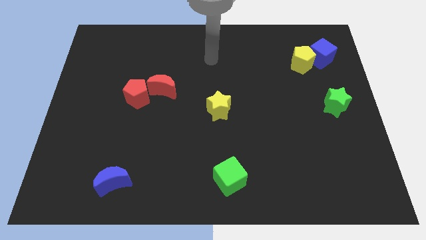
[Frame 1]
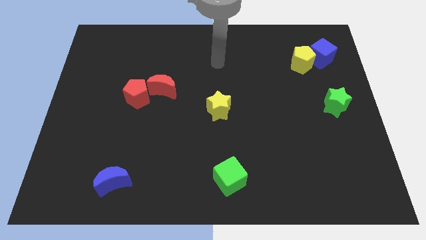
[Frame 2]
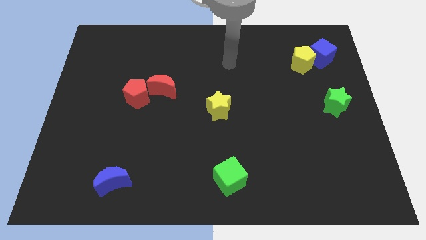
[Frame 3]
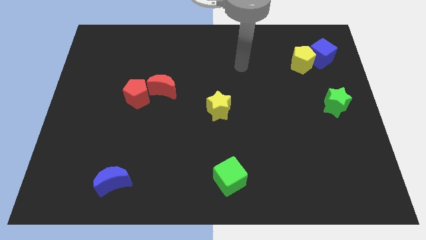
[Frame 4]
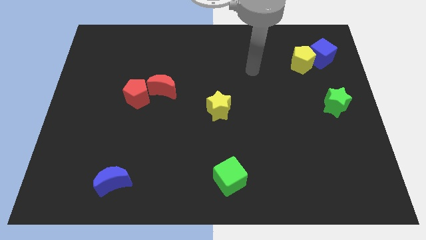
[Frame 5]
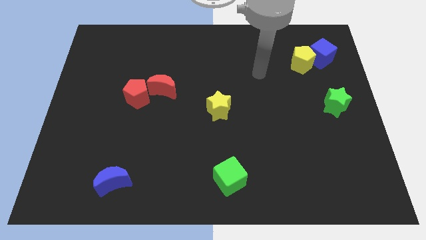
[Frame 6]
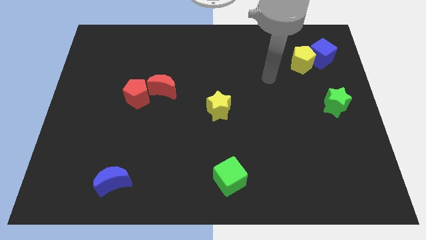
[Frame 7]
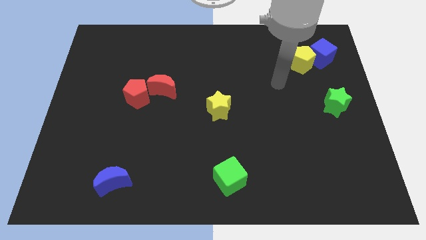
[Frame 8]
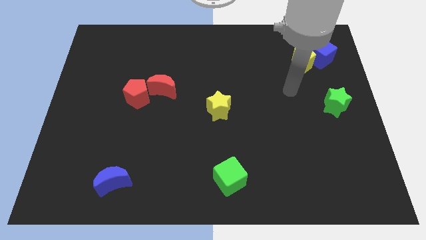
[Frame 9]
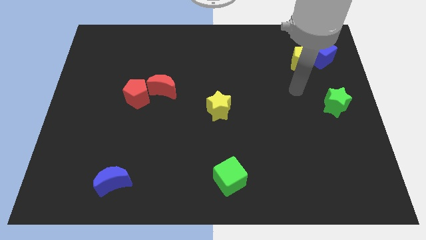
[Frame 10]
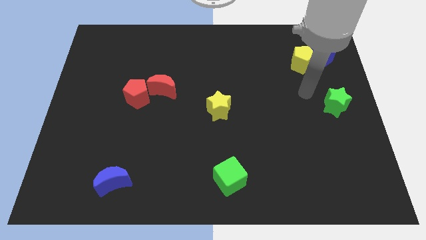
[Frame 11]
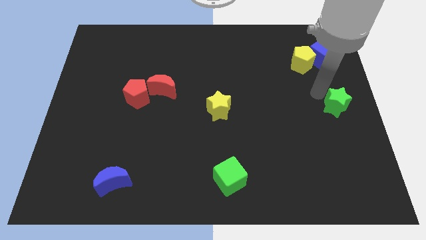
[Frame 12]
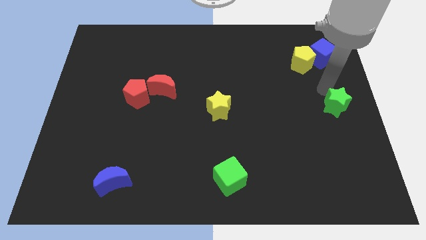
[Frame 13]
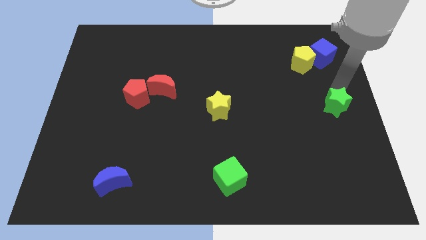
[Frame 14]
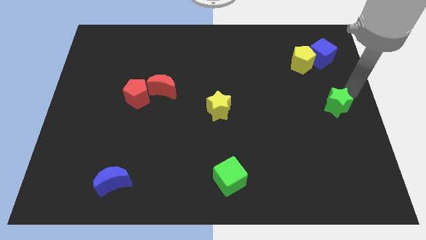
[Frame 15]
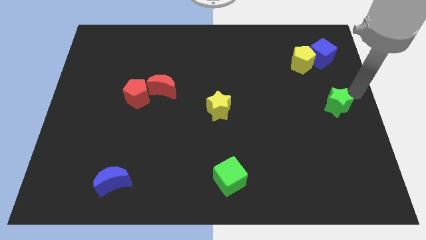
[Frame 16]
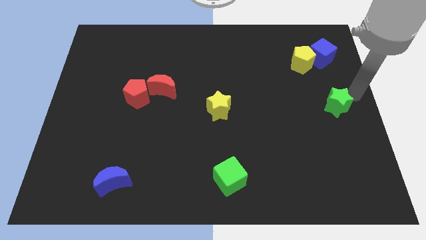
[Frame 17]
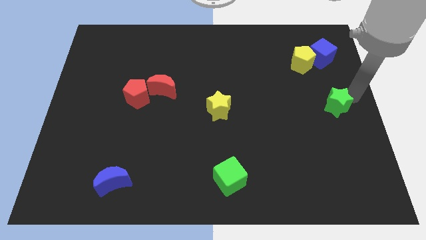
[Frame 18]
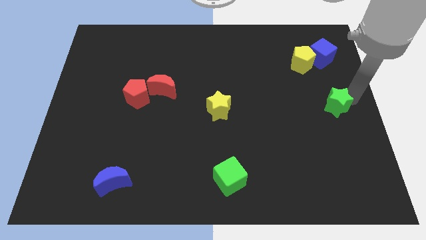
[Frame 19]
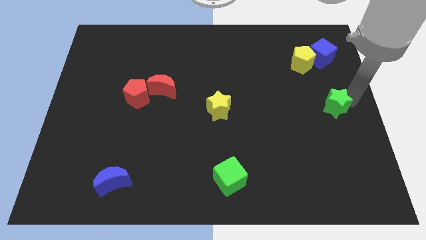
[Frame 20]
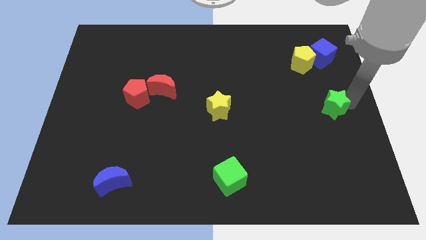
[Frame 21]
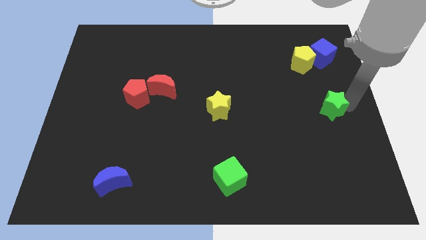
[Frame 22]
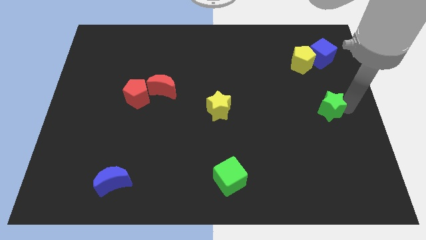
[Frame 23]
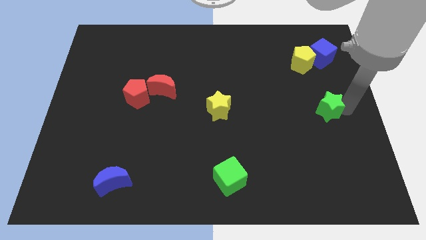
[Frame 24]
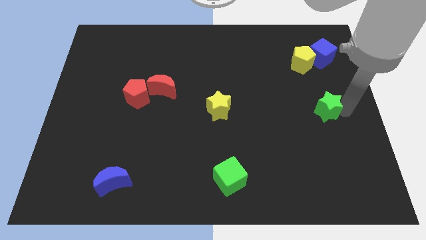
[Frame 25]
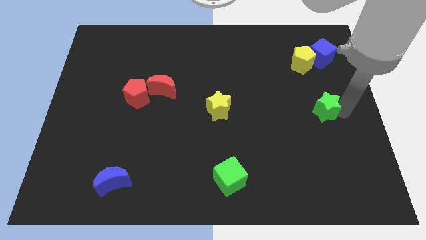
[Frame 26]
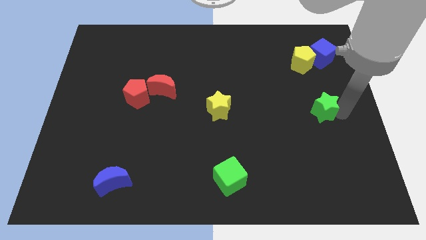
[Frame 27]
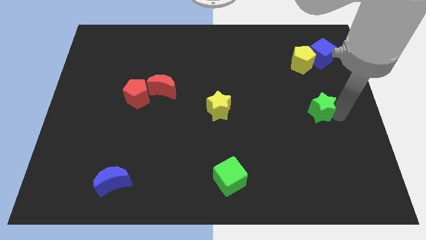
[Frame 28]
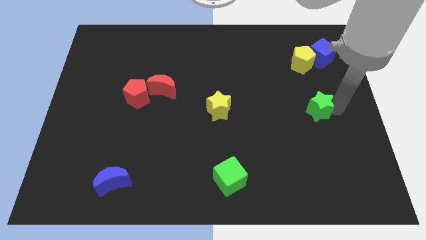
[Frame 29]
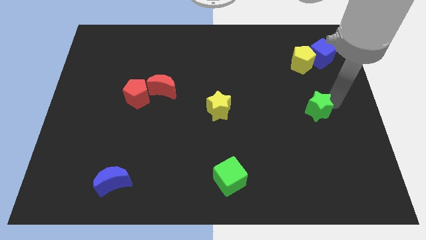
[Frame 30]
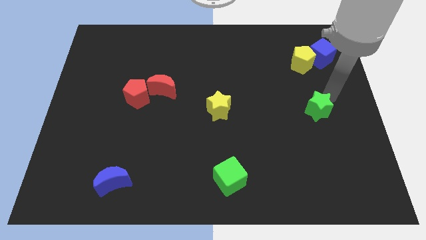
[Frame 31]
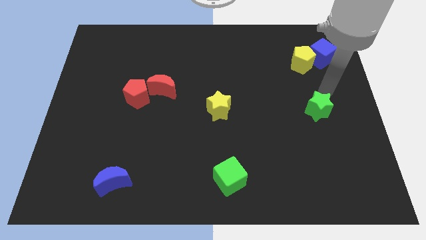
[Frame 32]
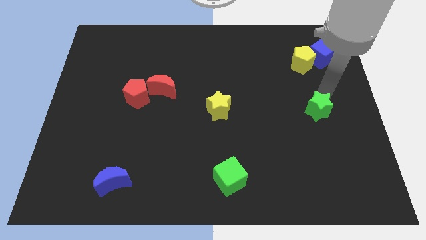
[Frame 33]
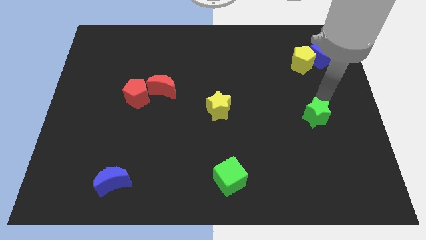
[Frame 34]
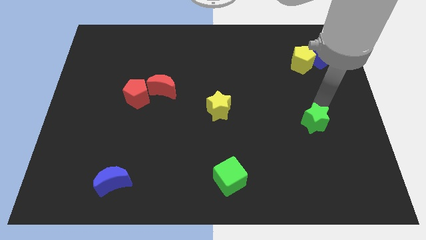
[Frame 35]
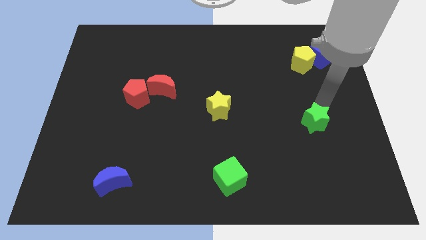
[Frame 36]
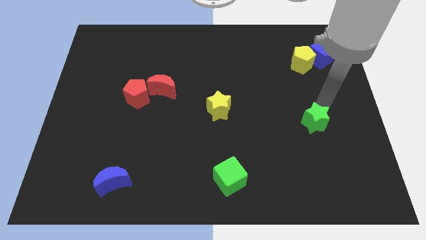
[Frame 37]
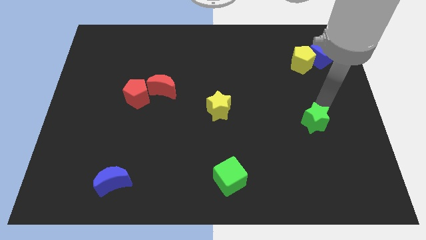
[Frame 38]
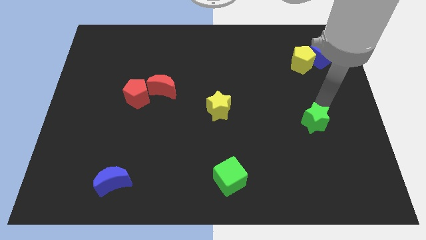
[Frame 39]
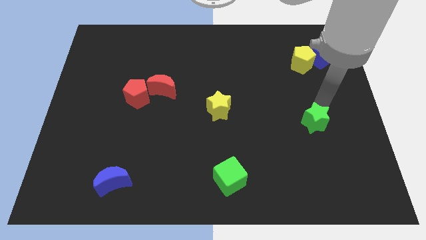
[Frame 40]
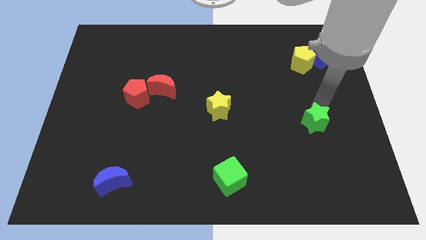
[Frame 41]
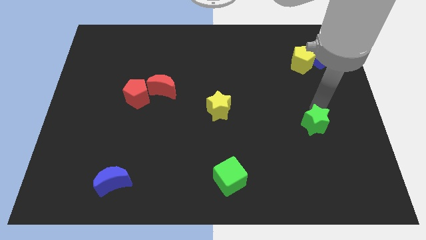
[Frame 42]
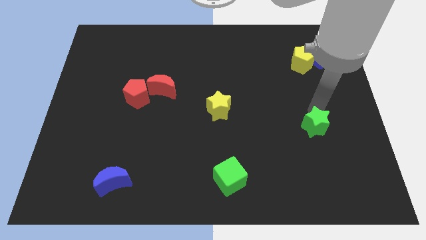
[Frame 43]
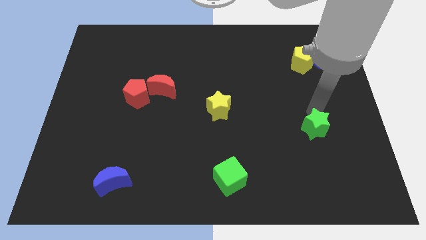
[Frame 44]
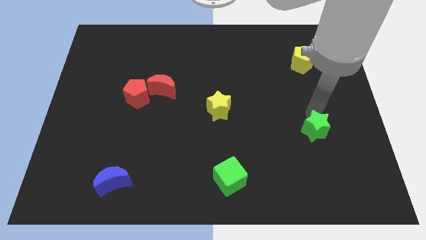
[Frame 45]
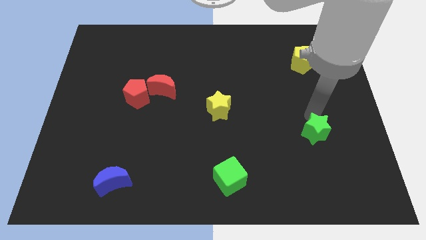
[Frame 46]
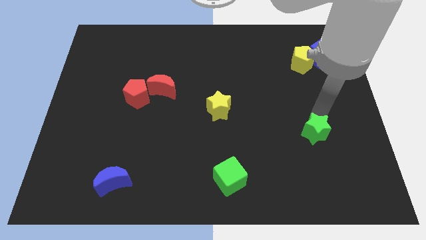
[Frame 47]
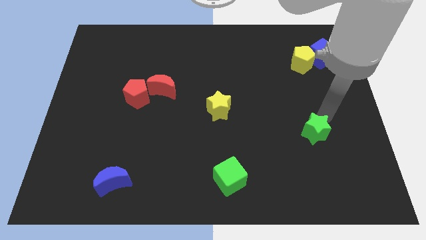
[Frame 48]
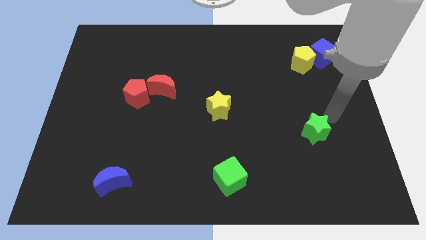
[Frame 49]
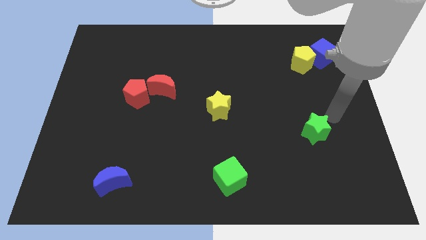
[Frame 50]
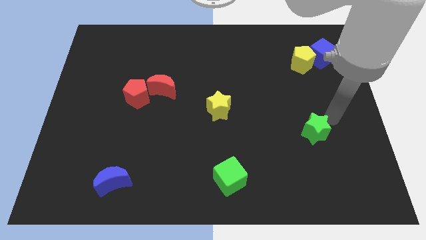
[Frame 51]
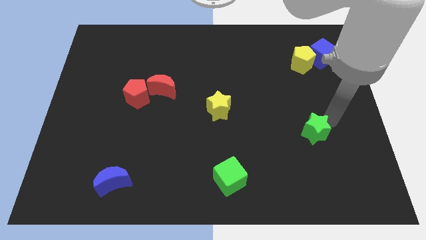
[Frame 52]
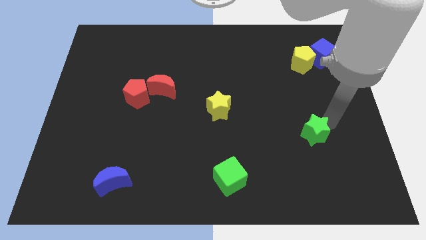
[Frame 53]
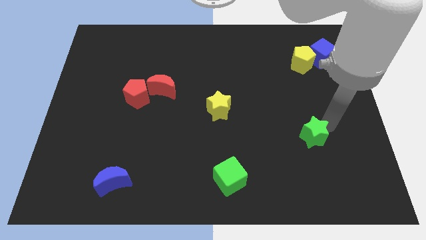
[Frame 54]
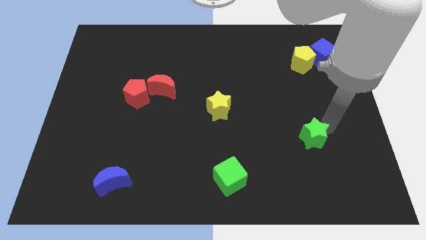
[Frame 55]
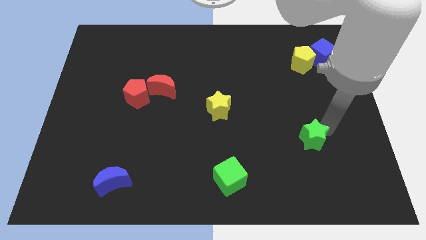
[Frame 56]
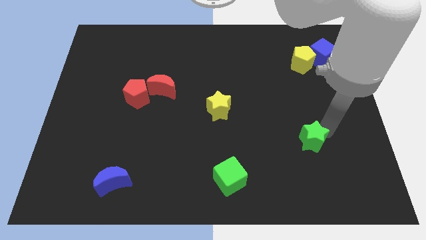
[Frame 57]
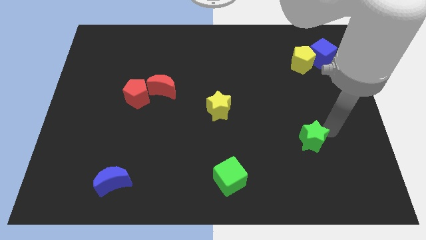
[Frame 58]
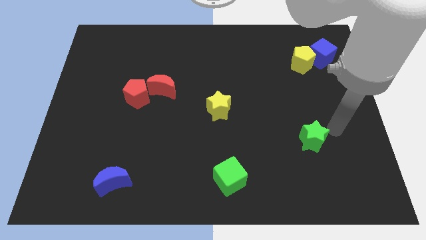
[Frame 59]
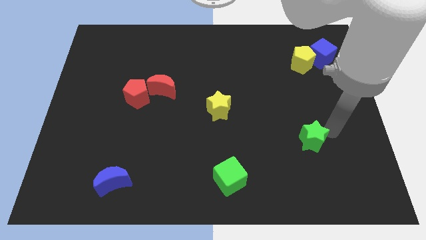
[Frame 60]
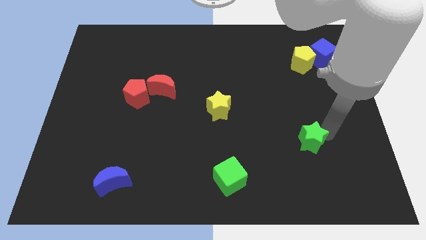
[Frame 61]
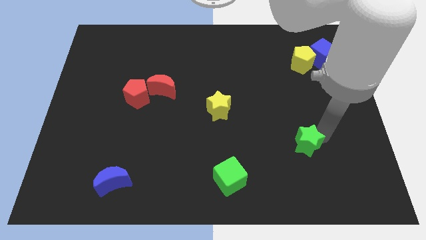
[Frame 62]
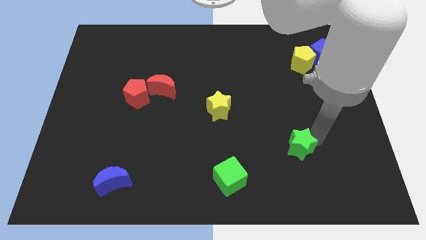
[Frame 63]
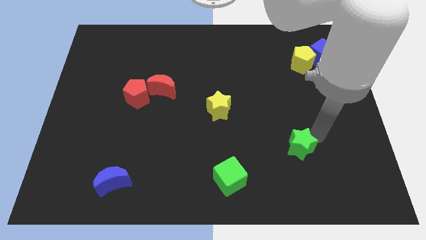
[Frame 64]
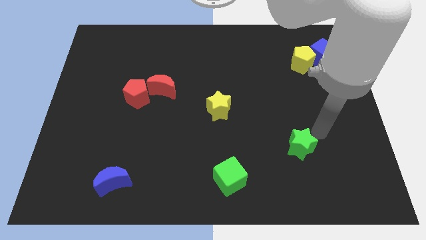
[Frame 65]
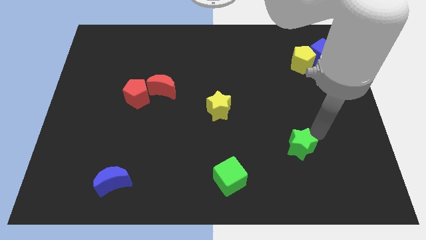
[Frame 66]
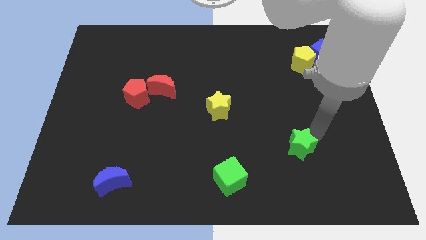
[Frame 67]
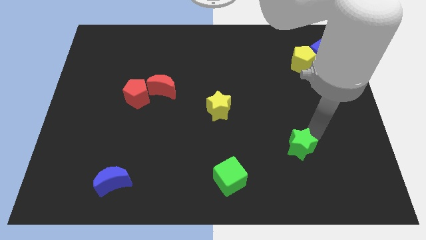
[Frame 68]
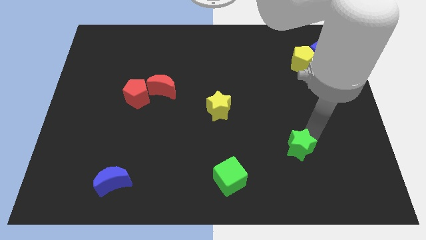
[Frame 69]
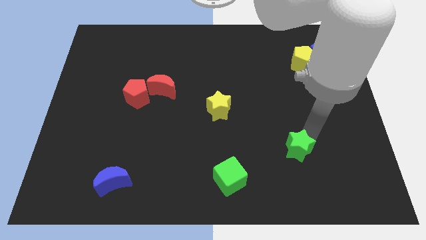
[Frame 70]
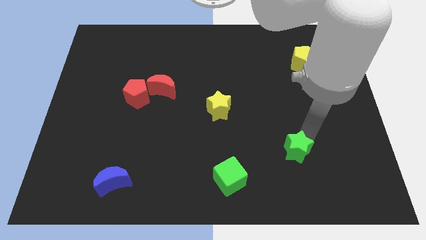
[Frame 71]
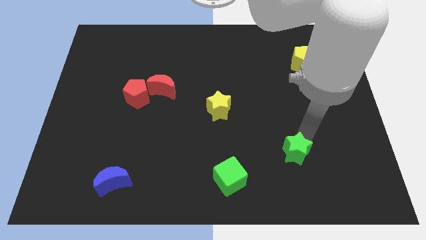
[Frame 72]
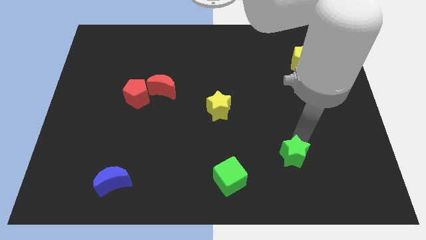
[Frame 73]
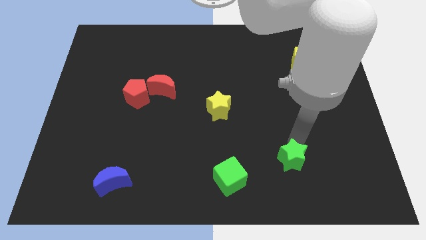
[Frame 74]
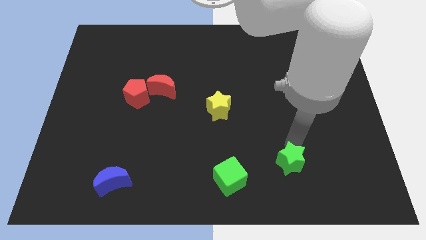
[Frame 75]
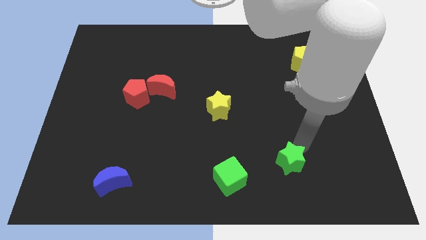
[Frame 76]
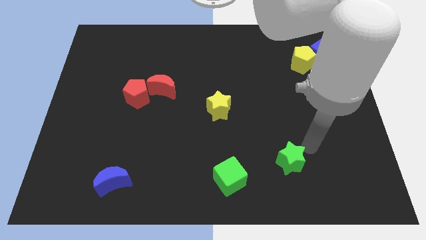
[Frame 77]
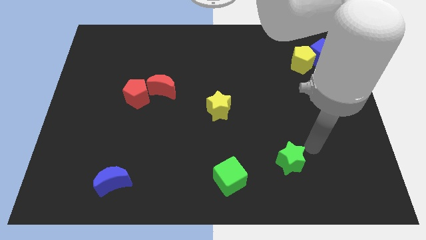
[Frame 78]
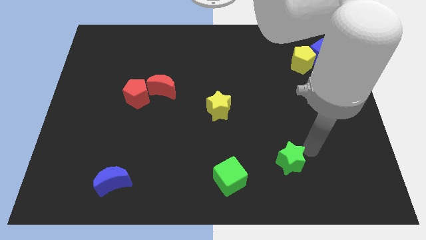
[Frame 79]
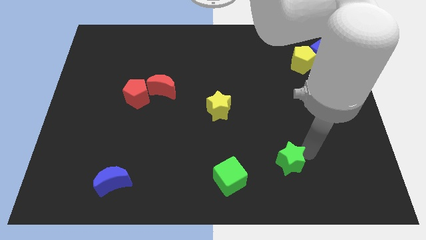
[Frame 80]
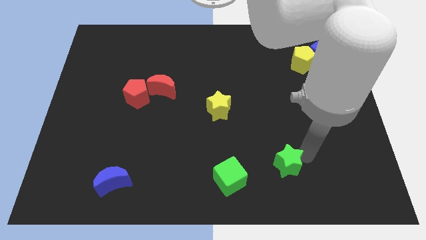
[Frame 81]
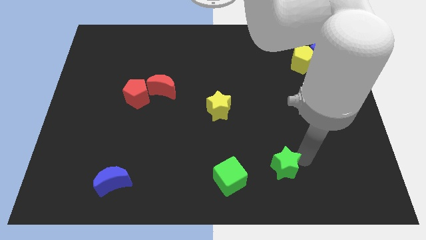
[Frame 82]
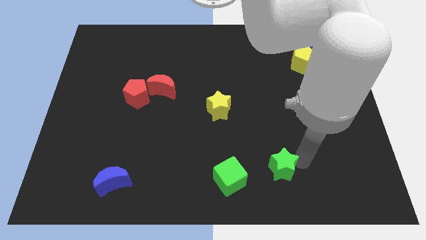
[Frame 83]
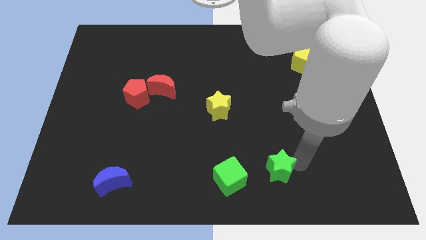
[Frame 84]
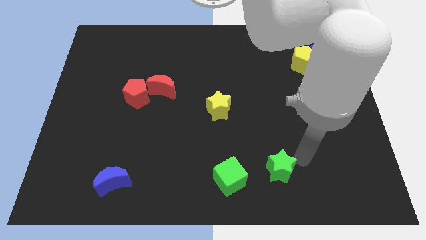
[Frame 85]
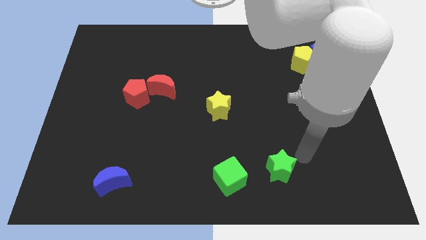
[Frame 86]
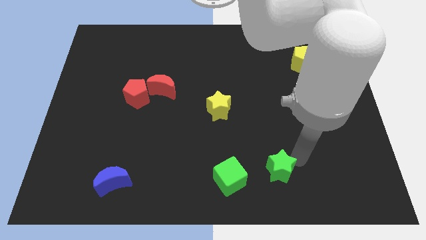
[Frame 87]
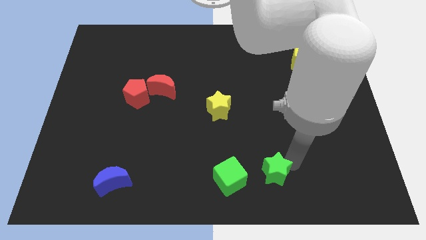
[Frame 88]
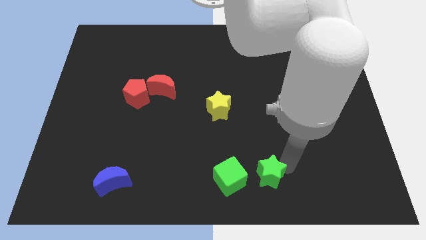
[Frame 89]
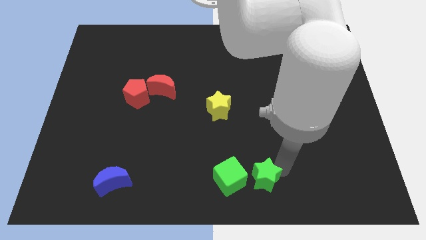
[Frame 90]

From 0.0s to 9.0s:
put the green star to the bottom
